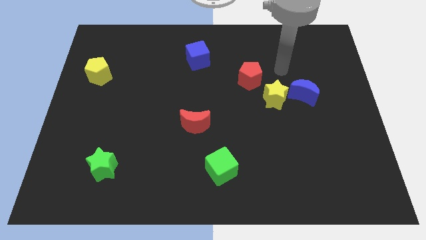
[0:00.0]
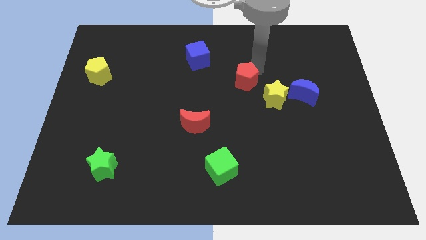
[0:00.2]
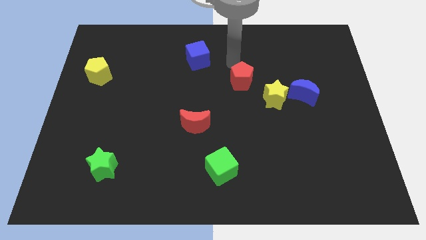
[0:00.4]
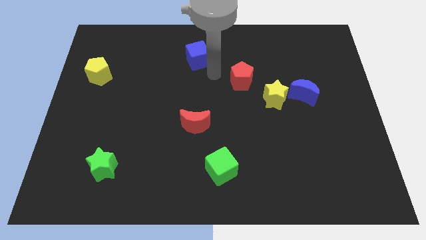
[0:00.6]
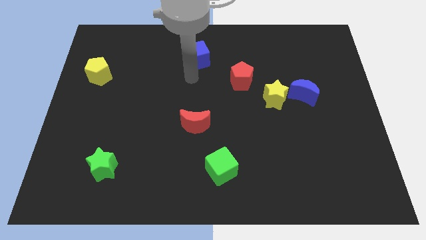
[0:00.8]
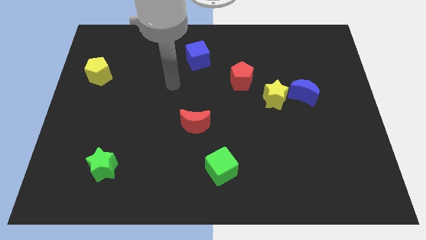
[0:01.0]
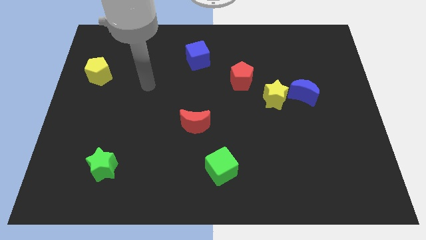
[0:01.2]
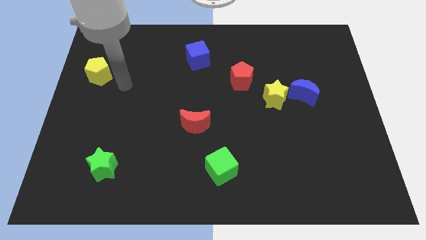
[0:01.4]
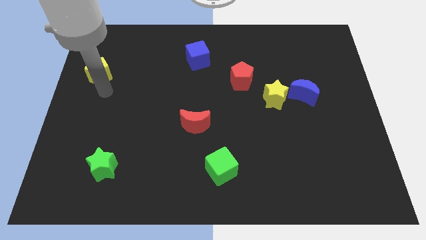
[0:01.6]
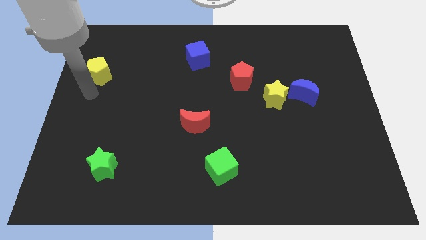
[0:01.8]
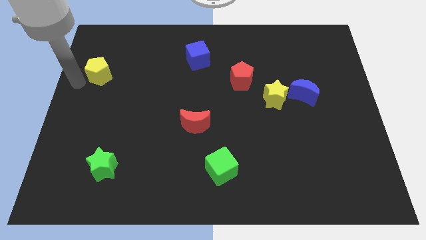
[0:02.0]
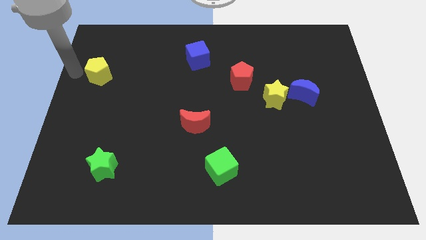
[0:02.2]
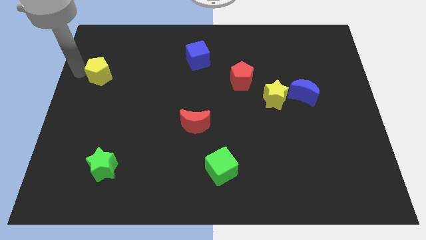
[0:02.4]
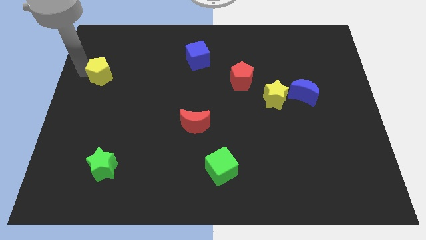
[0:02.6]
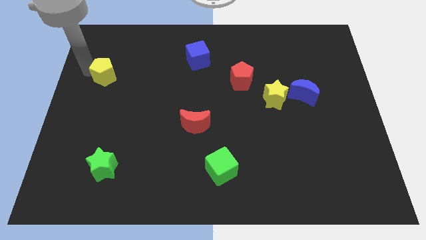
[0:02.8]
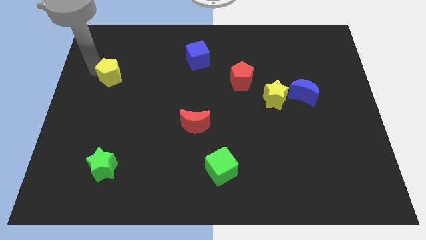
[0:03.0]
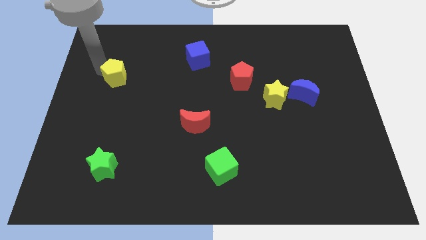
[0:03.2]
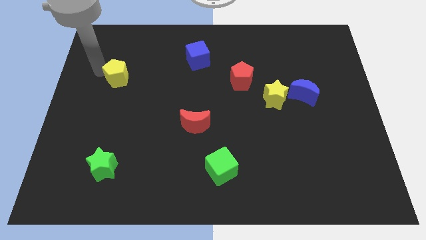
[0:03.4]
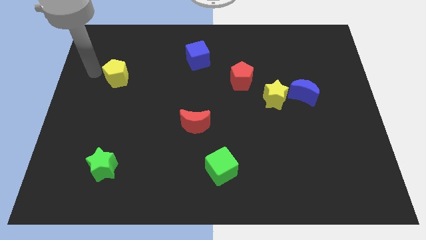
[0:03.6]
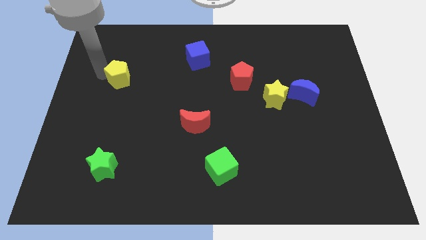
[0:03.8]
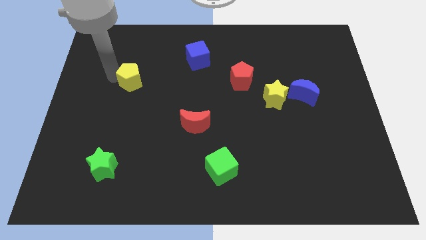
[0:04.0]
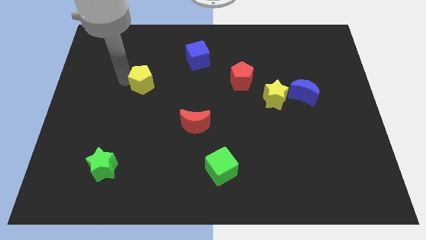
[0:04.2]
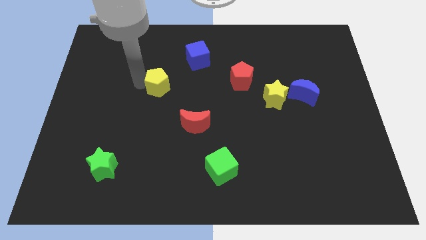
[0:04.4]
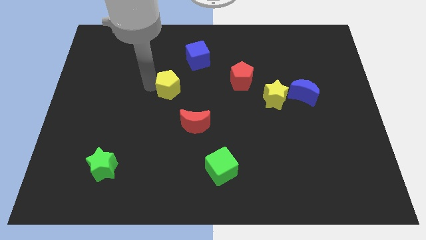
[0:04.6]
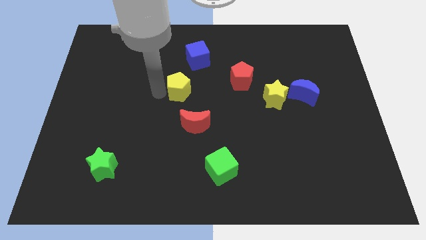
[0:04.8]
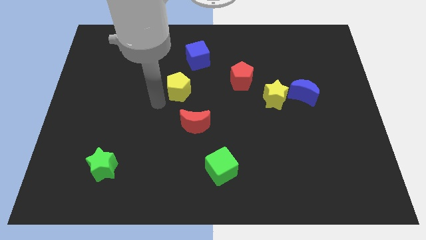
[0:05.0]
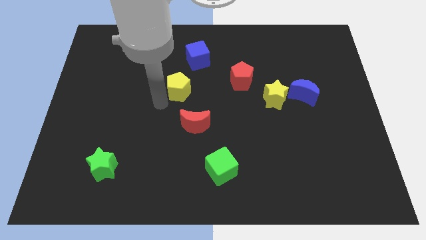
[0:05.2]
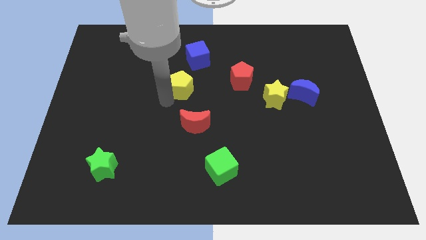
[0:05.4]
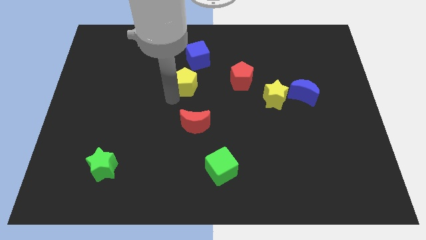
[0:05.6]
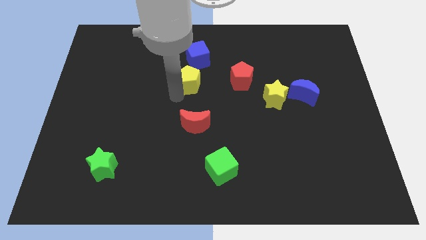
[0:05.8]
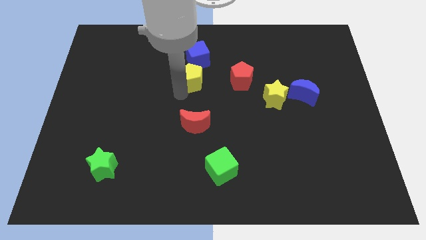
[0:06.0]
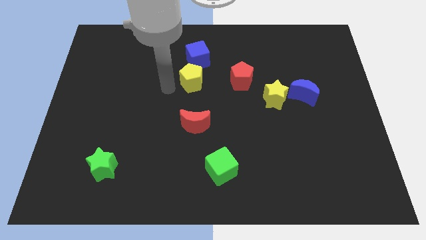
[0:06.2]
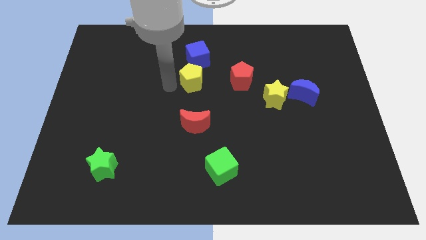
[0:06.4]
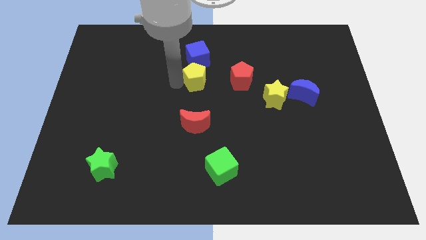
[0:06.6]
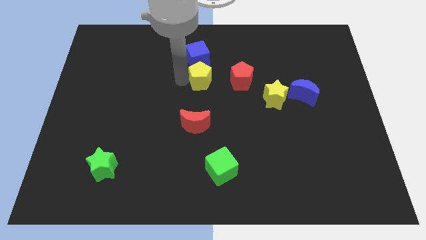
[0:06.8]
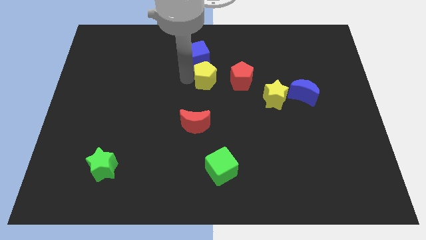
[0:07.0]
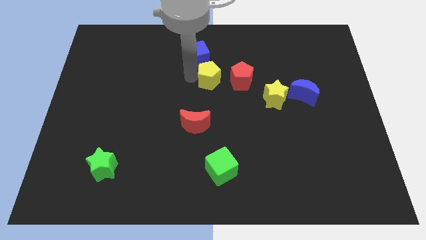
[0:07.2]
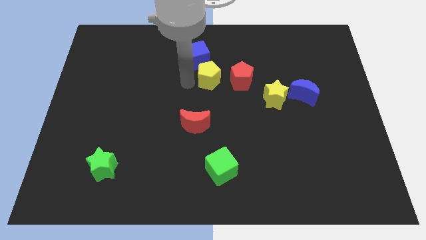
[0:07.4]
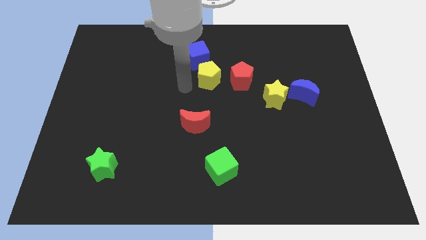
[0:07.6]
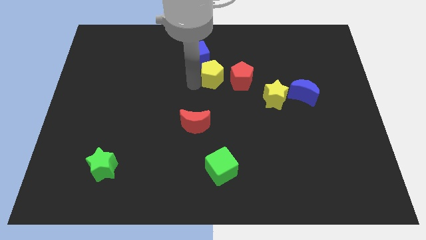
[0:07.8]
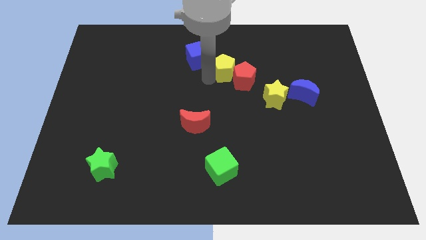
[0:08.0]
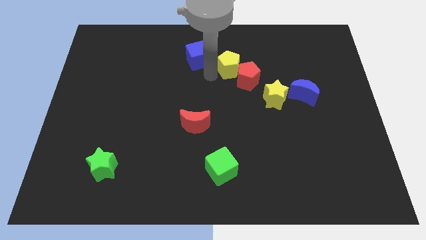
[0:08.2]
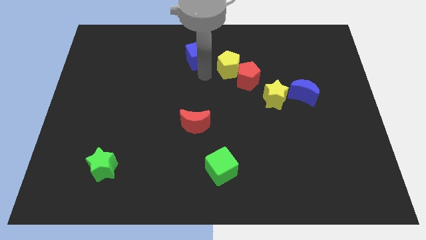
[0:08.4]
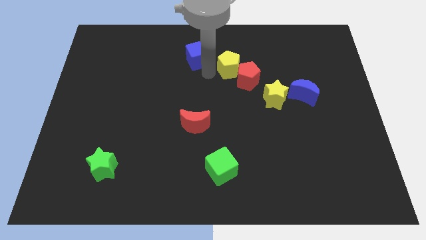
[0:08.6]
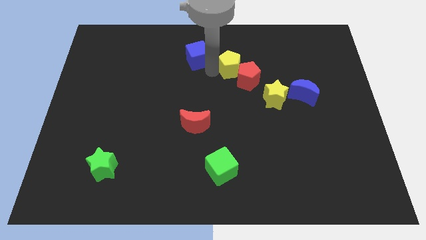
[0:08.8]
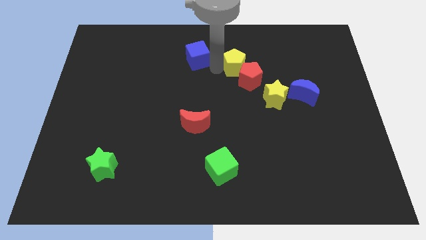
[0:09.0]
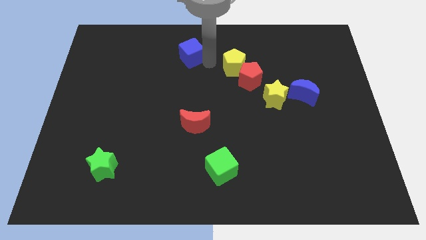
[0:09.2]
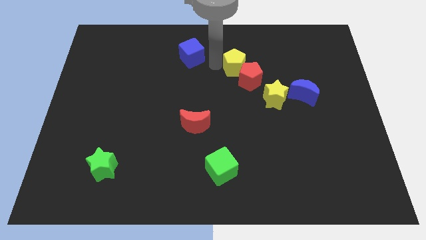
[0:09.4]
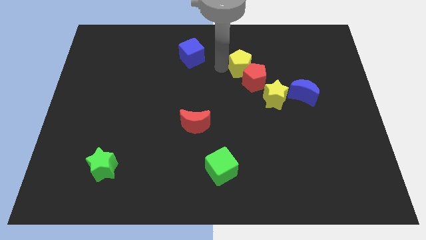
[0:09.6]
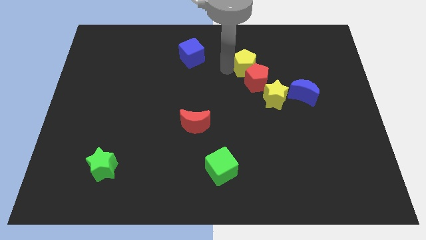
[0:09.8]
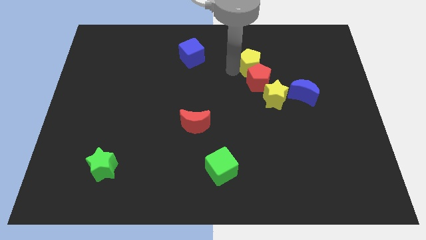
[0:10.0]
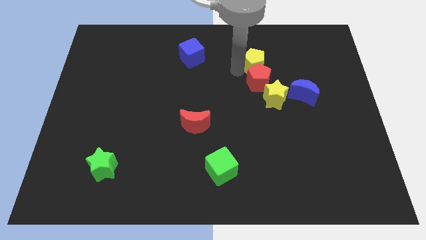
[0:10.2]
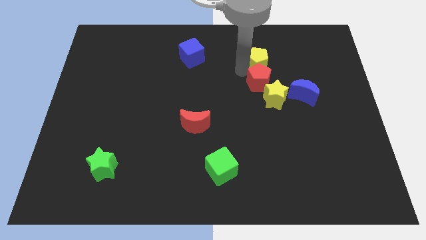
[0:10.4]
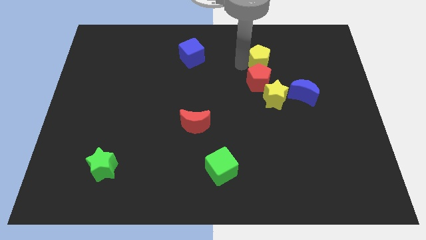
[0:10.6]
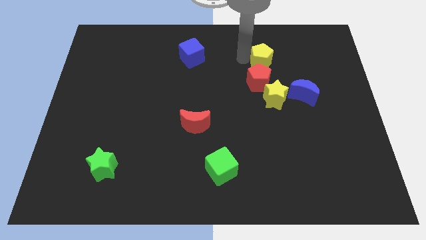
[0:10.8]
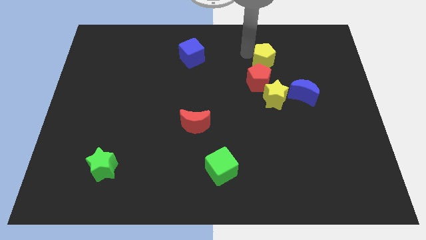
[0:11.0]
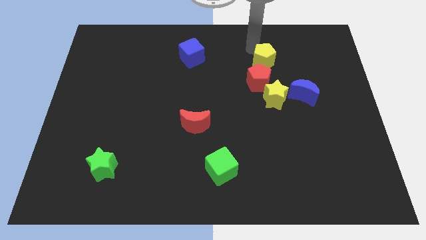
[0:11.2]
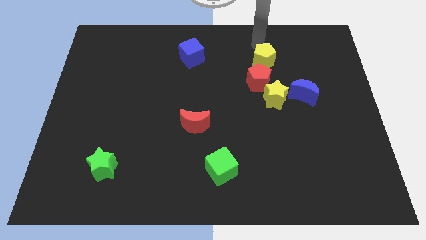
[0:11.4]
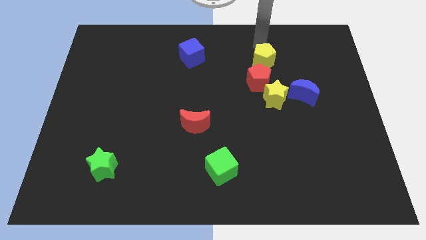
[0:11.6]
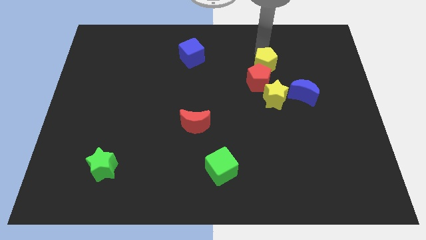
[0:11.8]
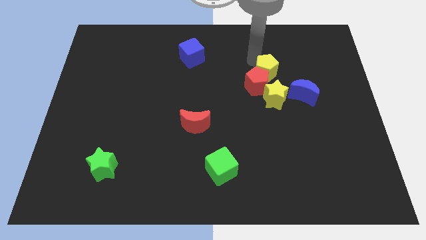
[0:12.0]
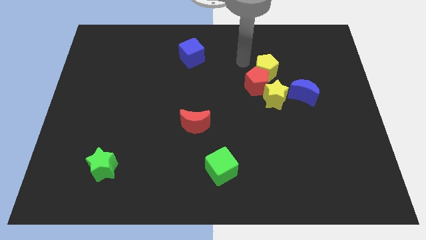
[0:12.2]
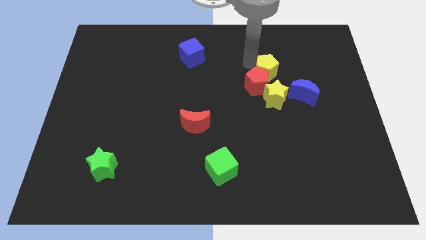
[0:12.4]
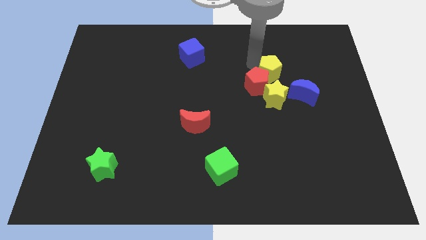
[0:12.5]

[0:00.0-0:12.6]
put the yellow pentagon just right of the red pentagon
